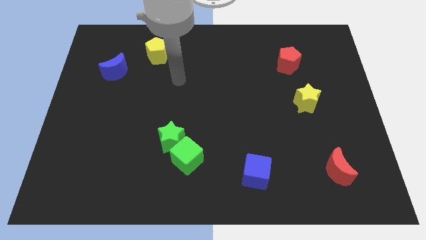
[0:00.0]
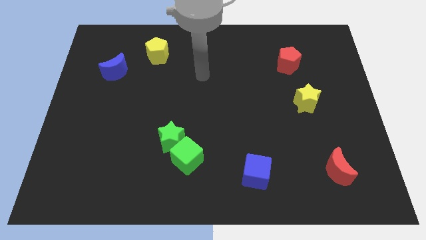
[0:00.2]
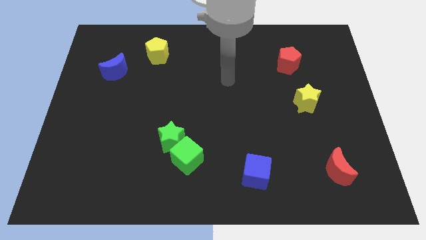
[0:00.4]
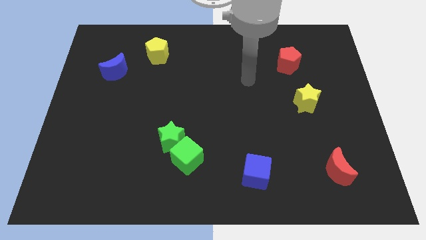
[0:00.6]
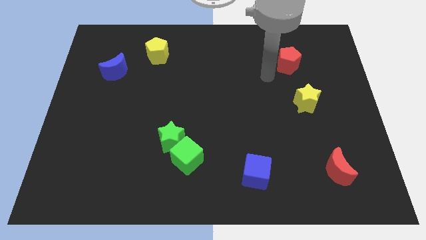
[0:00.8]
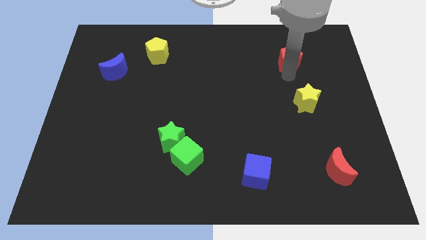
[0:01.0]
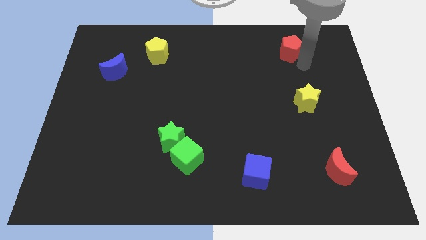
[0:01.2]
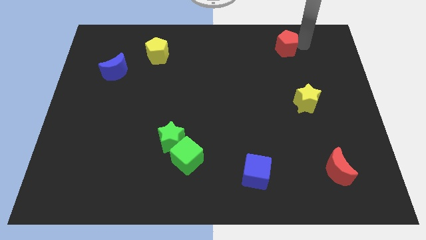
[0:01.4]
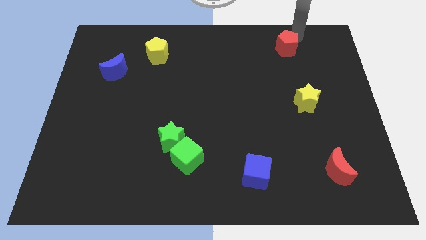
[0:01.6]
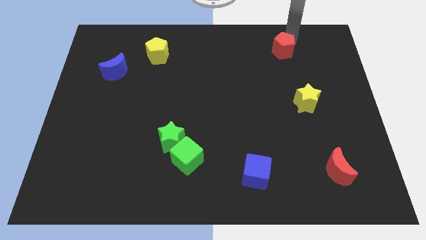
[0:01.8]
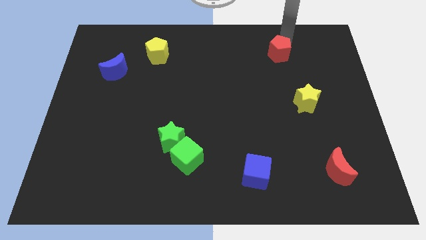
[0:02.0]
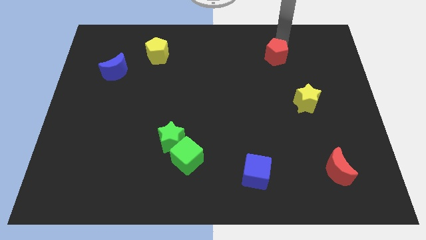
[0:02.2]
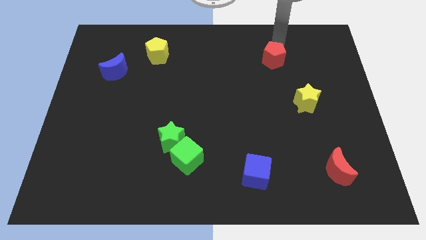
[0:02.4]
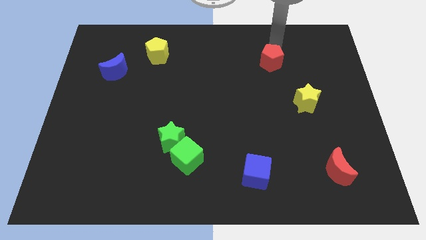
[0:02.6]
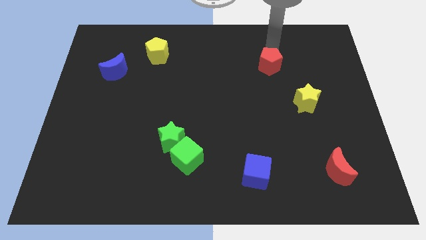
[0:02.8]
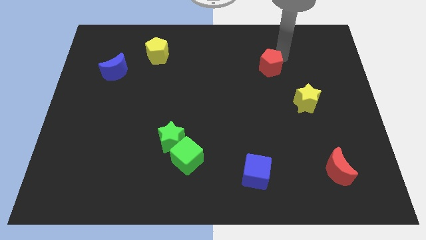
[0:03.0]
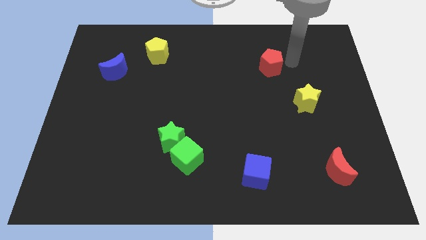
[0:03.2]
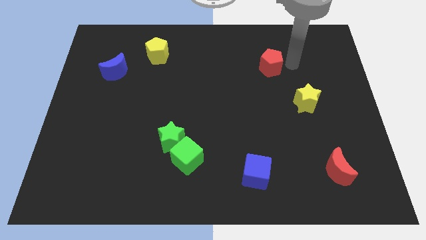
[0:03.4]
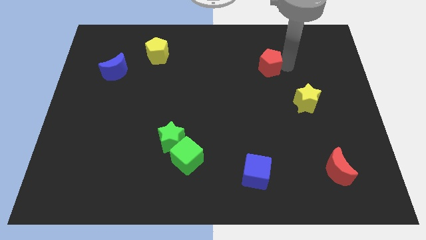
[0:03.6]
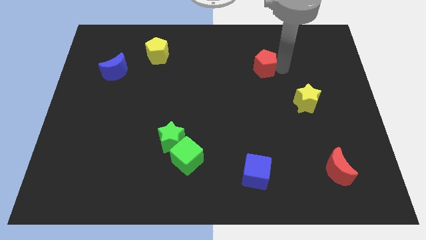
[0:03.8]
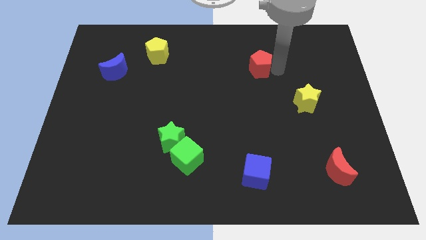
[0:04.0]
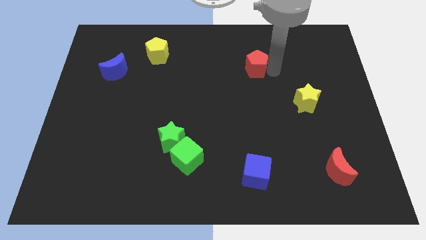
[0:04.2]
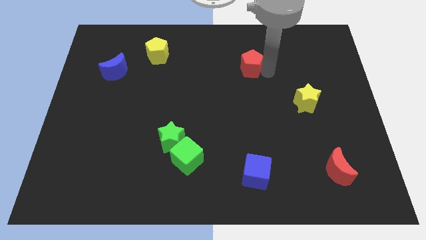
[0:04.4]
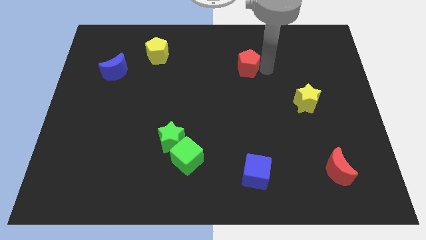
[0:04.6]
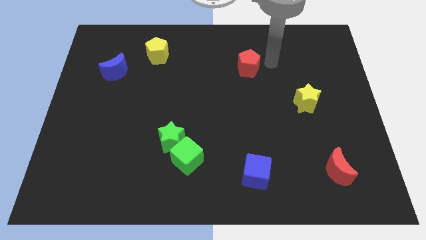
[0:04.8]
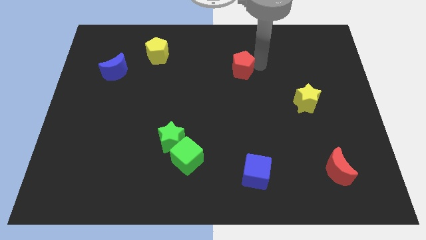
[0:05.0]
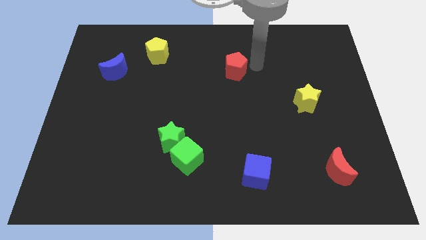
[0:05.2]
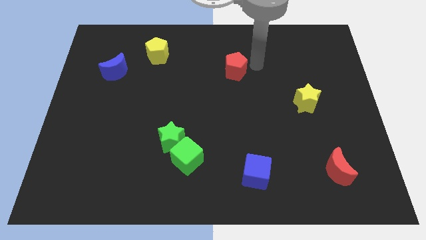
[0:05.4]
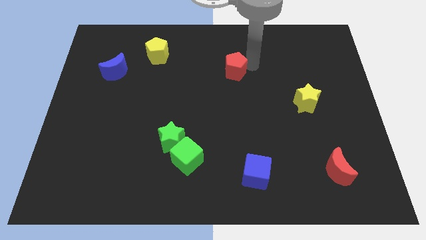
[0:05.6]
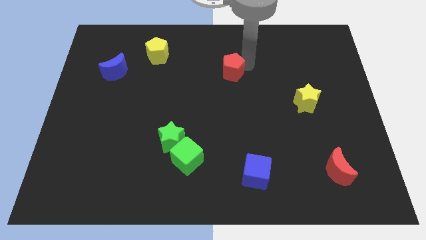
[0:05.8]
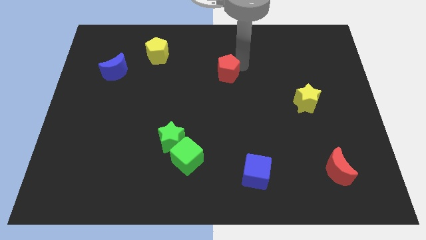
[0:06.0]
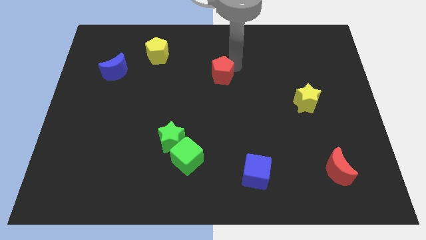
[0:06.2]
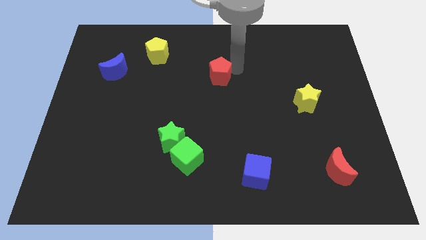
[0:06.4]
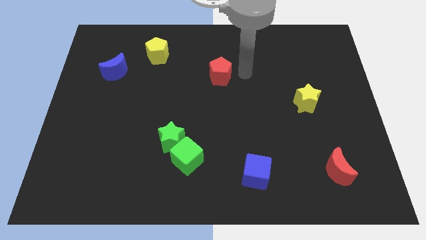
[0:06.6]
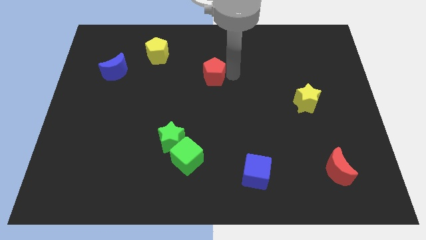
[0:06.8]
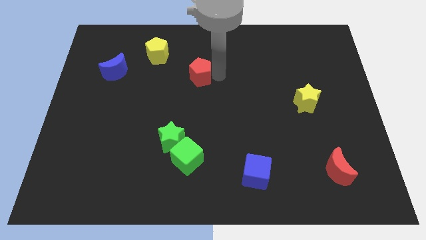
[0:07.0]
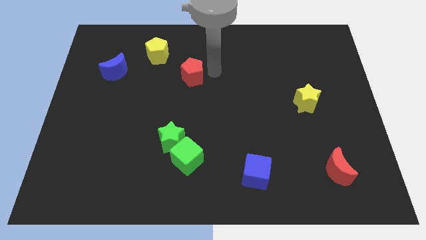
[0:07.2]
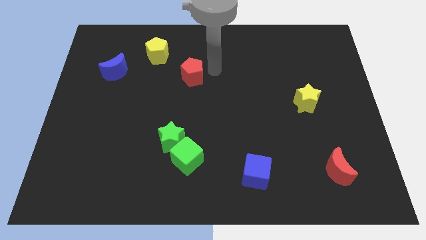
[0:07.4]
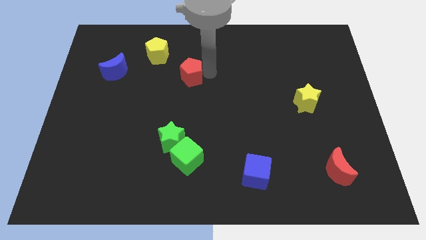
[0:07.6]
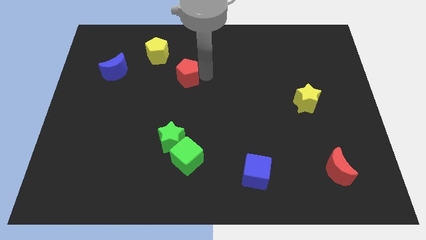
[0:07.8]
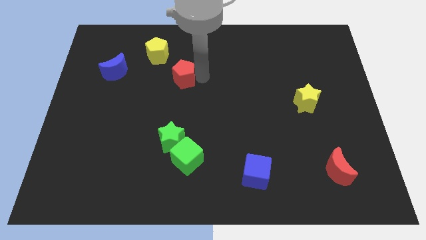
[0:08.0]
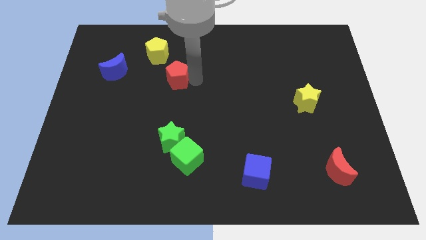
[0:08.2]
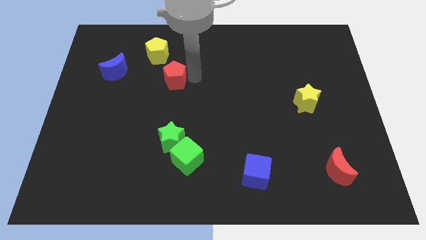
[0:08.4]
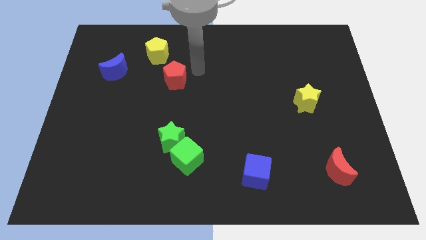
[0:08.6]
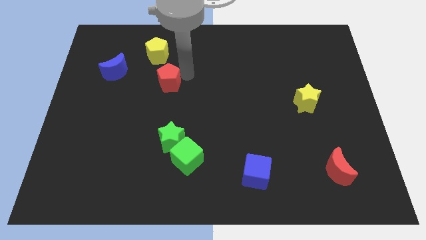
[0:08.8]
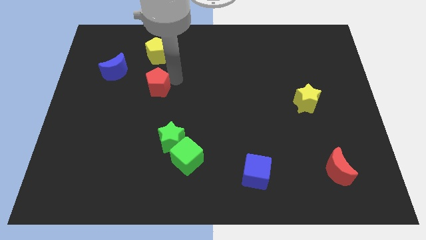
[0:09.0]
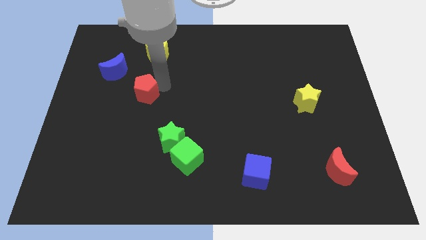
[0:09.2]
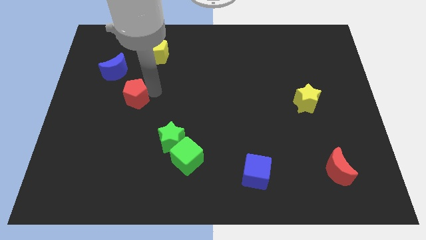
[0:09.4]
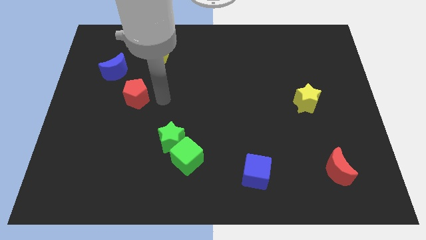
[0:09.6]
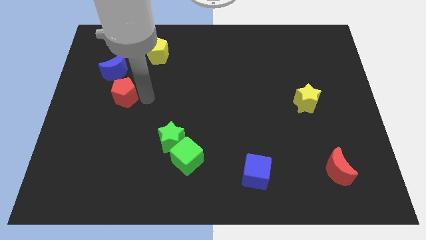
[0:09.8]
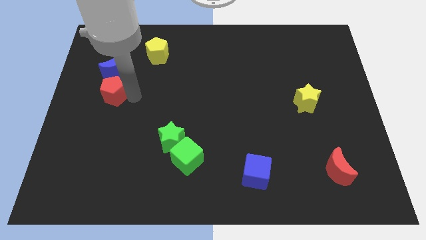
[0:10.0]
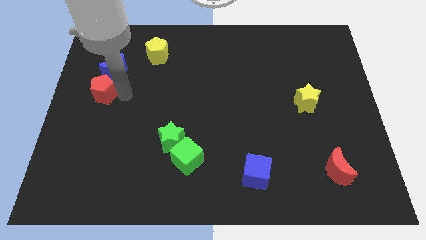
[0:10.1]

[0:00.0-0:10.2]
move the red pentagon to the center left
